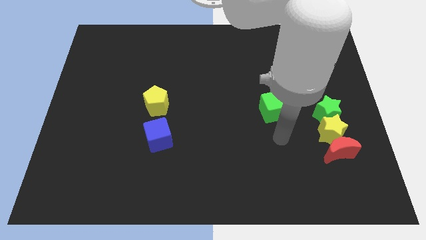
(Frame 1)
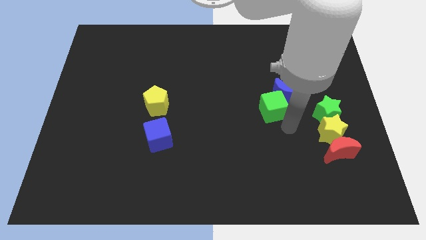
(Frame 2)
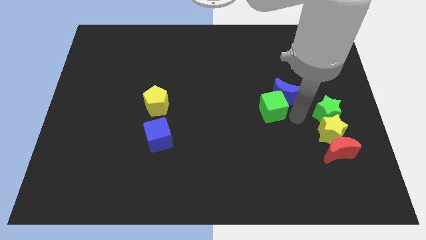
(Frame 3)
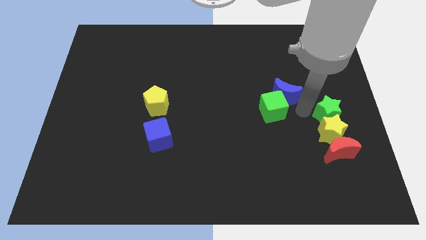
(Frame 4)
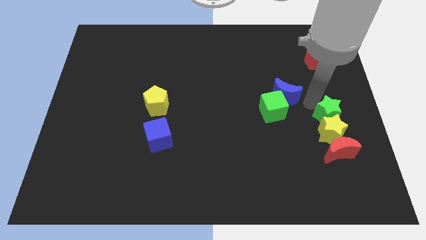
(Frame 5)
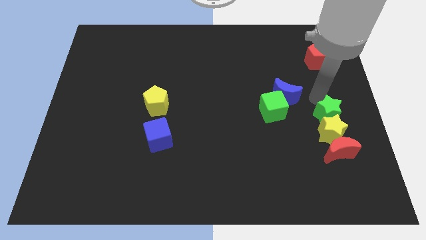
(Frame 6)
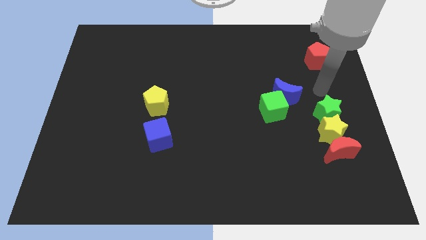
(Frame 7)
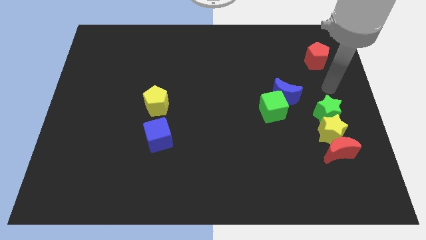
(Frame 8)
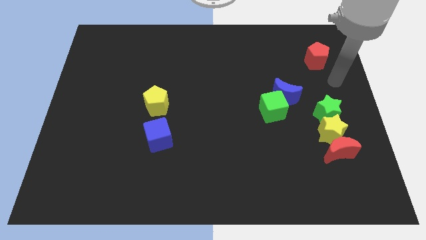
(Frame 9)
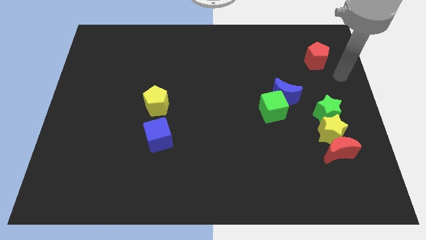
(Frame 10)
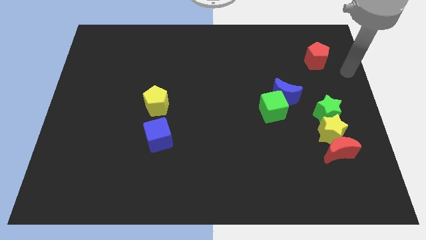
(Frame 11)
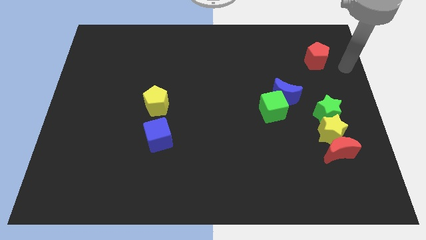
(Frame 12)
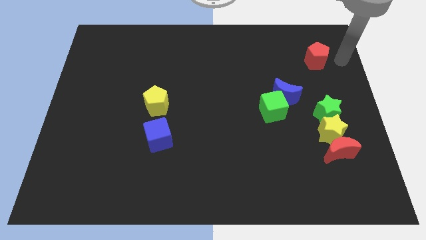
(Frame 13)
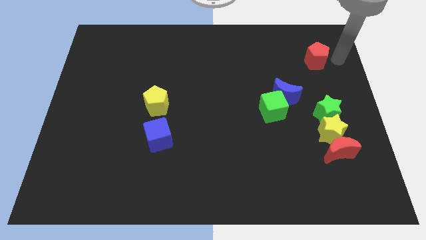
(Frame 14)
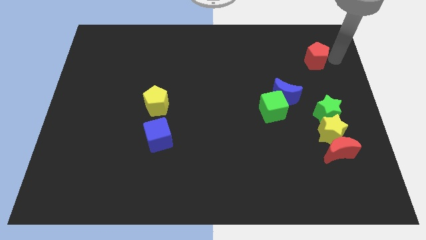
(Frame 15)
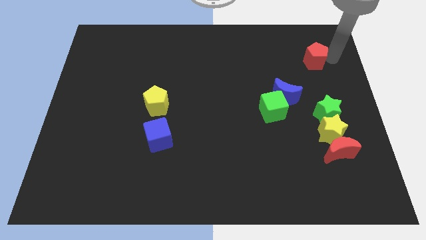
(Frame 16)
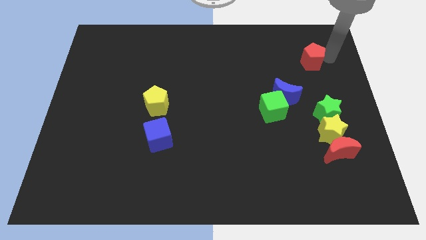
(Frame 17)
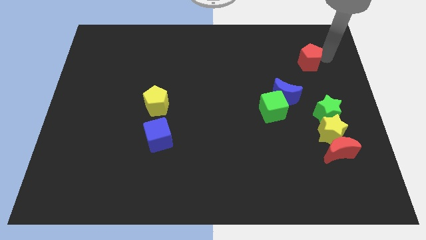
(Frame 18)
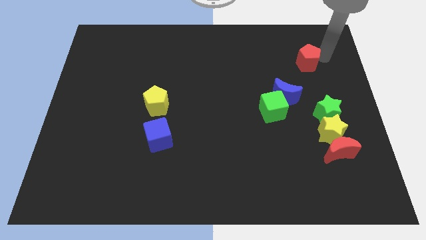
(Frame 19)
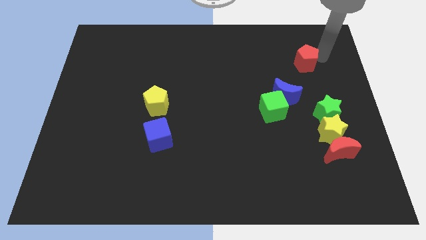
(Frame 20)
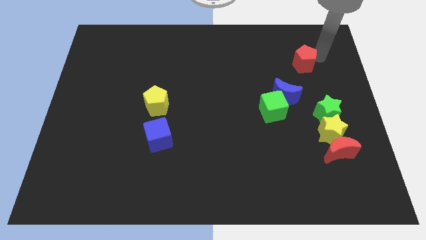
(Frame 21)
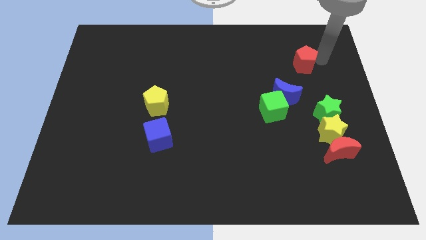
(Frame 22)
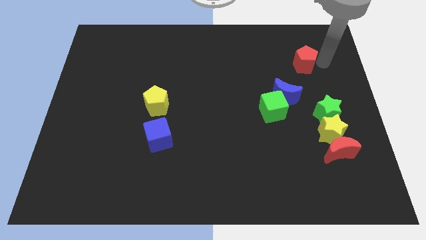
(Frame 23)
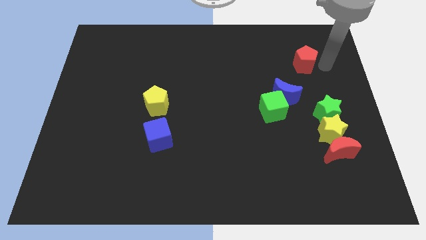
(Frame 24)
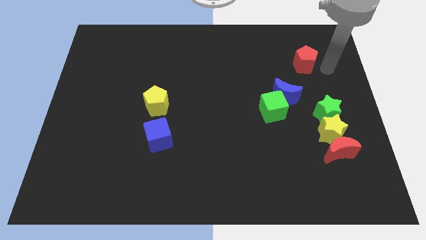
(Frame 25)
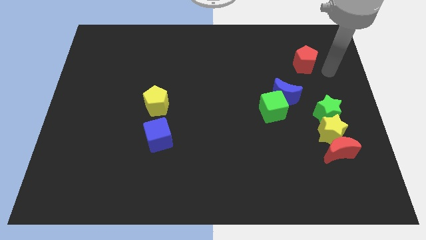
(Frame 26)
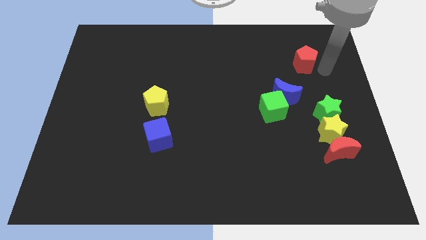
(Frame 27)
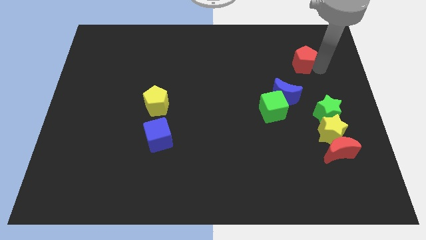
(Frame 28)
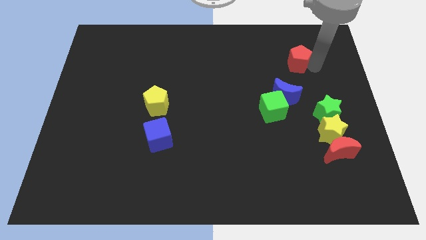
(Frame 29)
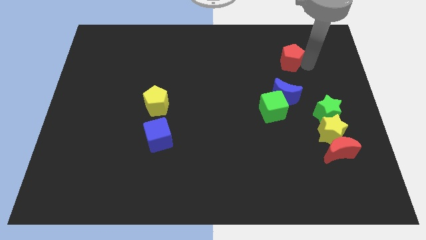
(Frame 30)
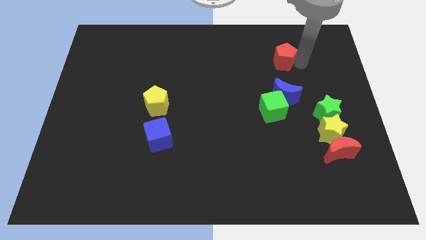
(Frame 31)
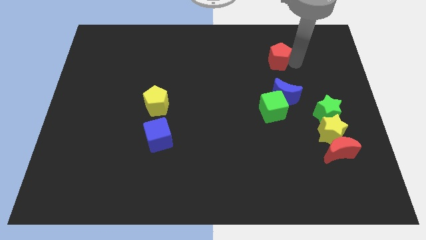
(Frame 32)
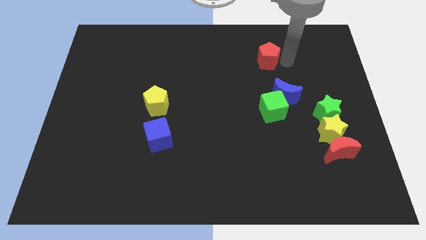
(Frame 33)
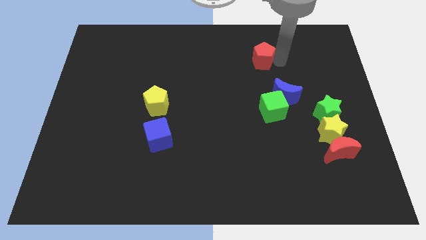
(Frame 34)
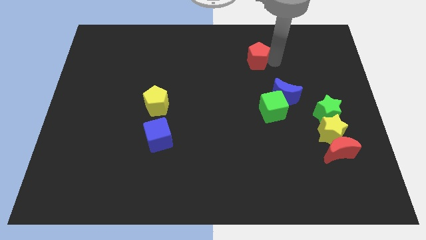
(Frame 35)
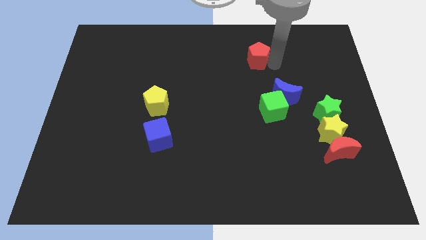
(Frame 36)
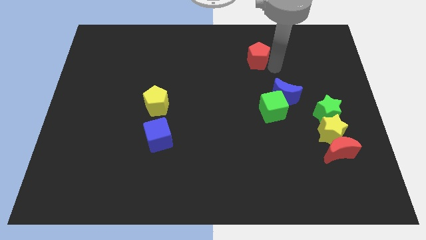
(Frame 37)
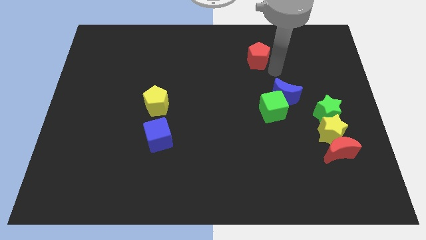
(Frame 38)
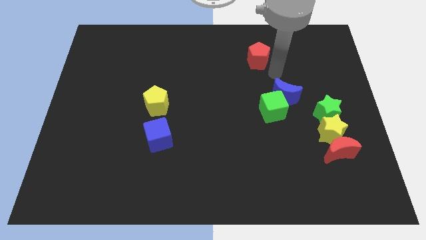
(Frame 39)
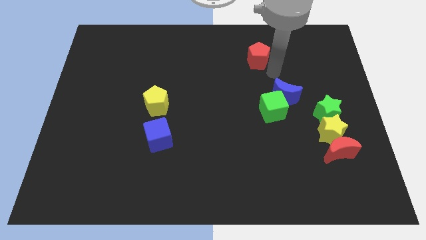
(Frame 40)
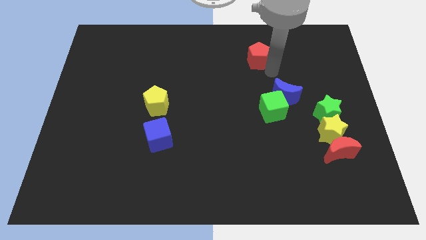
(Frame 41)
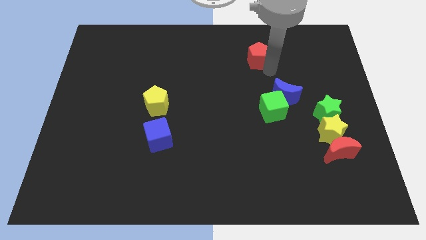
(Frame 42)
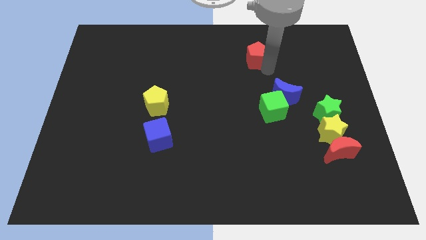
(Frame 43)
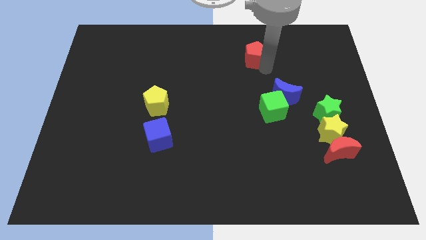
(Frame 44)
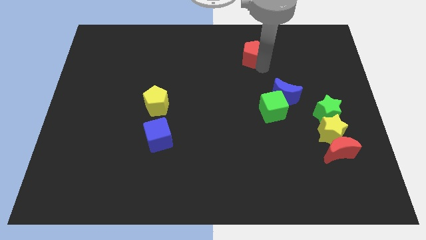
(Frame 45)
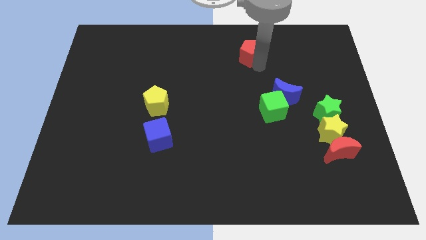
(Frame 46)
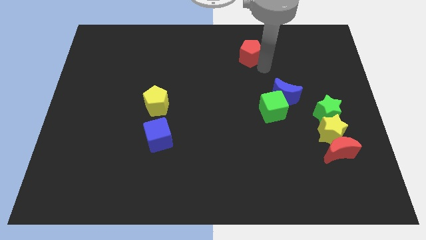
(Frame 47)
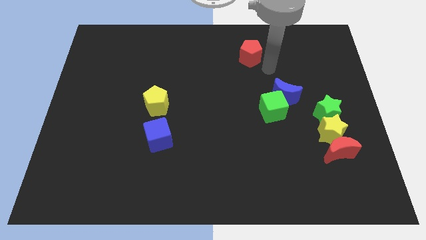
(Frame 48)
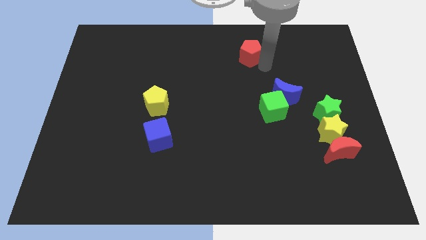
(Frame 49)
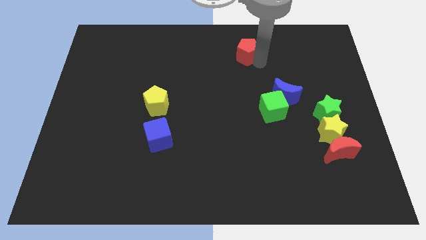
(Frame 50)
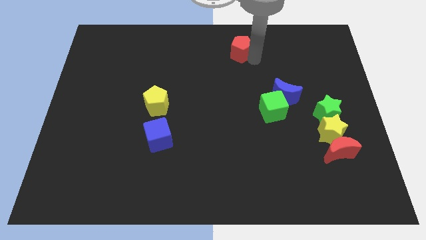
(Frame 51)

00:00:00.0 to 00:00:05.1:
put the red pentagon to the top side
